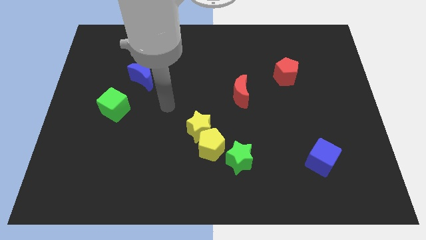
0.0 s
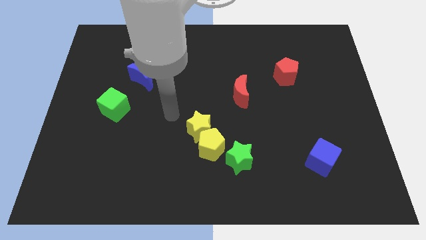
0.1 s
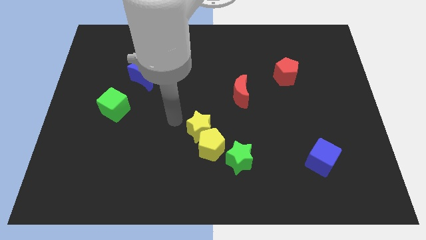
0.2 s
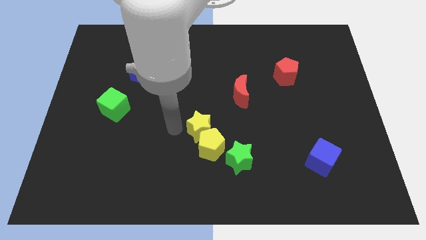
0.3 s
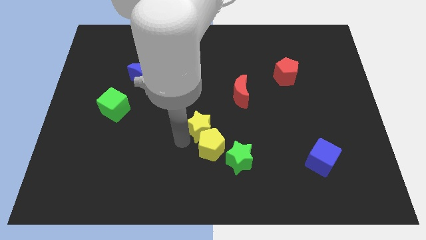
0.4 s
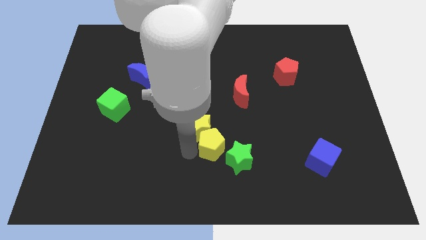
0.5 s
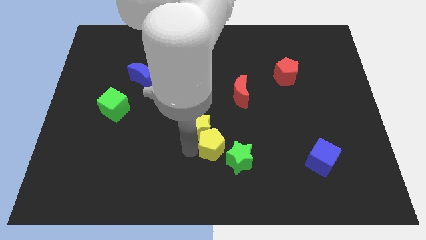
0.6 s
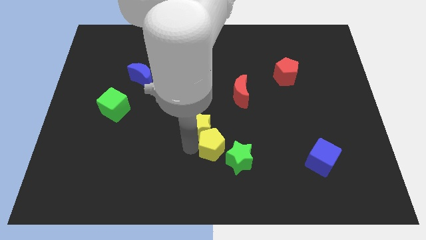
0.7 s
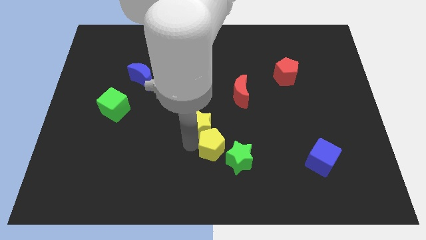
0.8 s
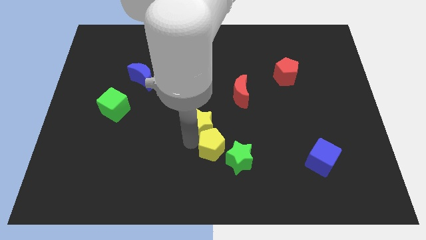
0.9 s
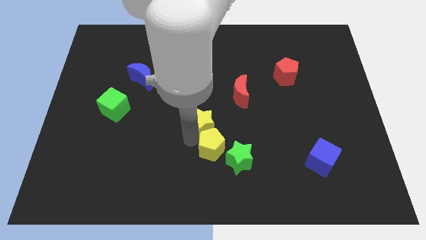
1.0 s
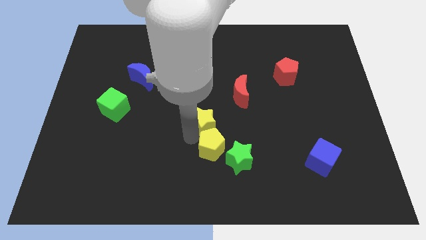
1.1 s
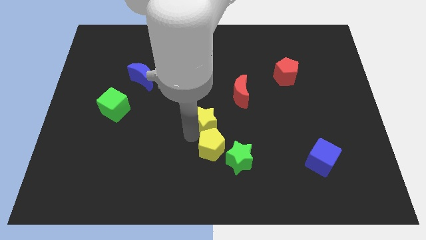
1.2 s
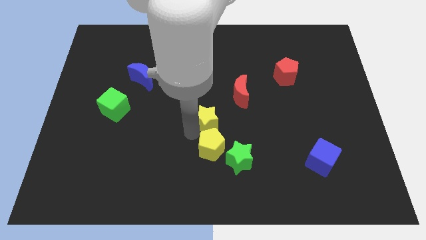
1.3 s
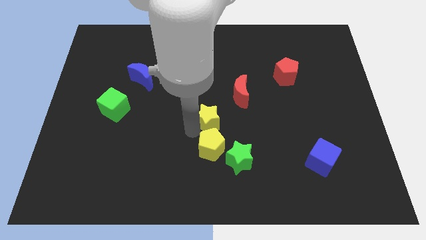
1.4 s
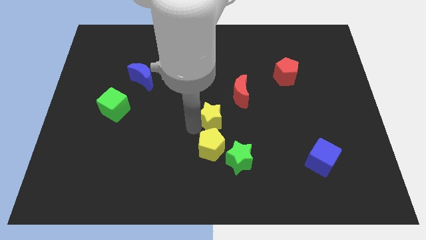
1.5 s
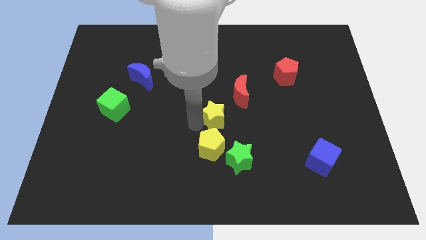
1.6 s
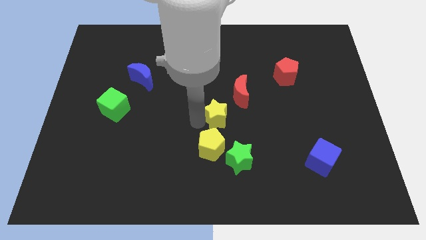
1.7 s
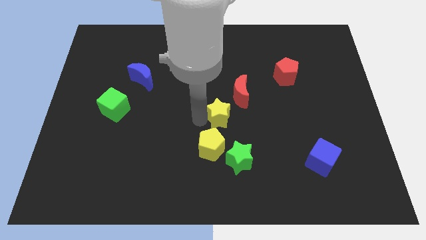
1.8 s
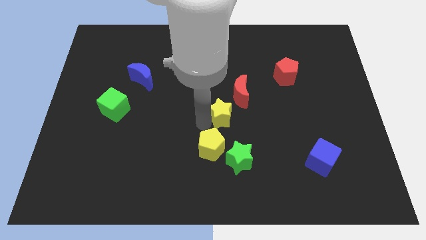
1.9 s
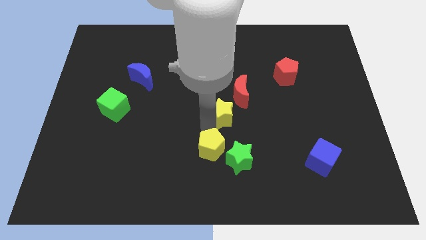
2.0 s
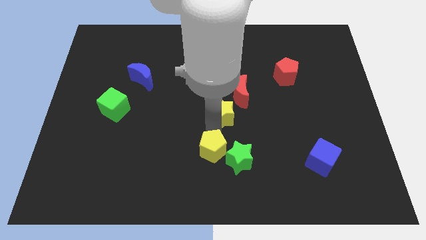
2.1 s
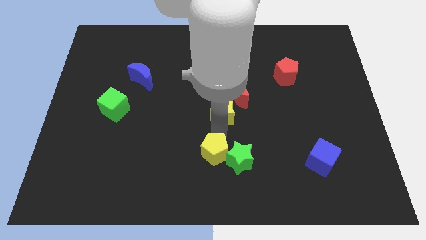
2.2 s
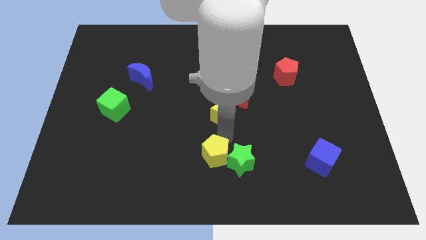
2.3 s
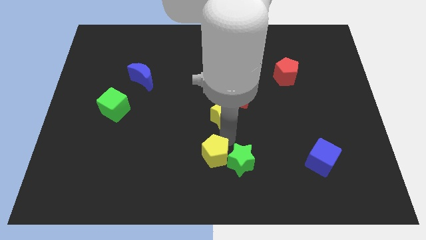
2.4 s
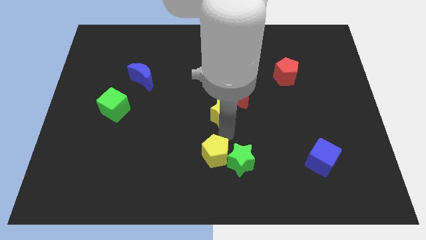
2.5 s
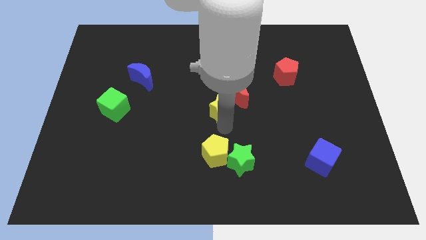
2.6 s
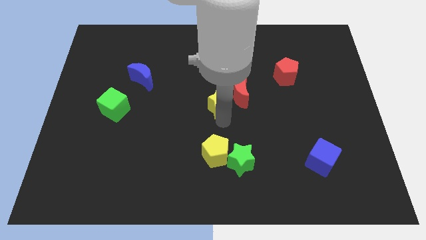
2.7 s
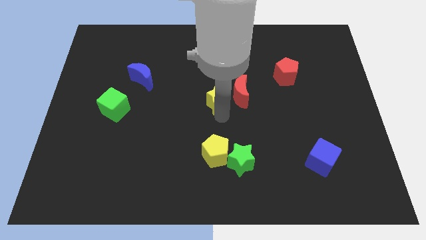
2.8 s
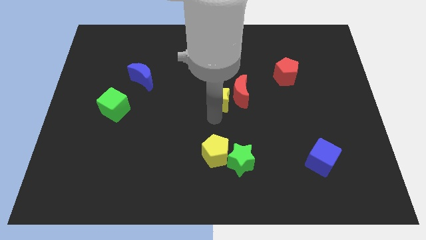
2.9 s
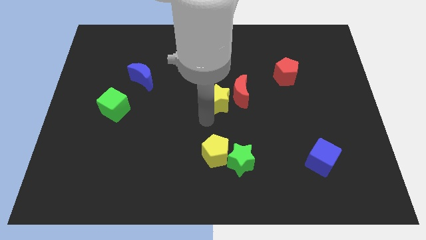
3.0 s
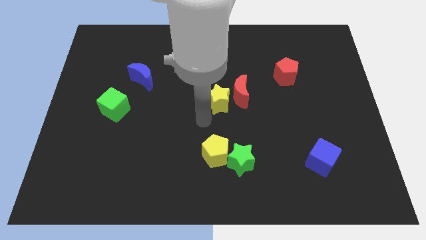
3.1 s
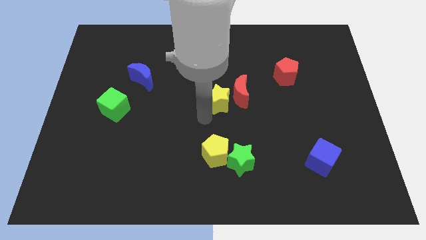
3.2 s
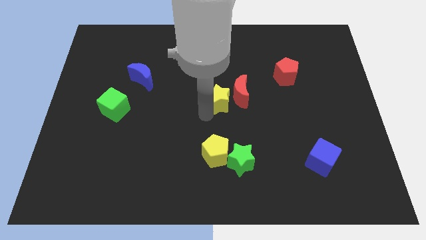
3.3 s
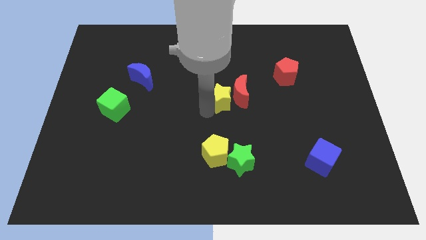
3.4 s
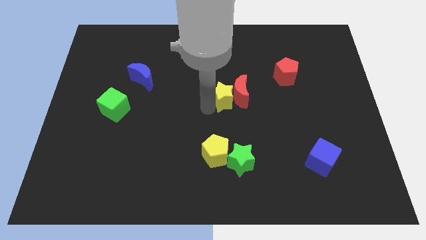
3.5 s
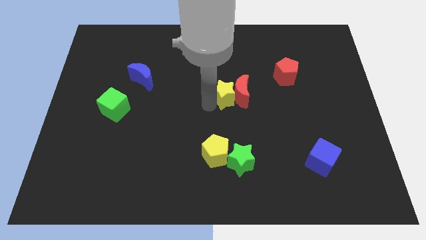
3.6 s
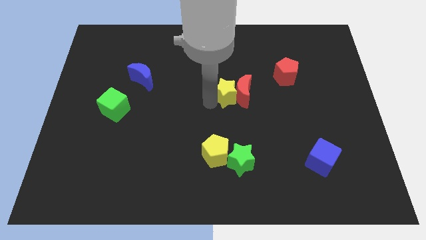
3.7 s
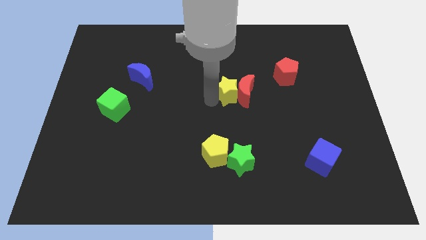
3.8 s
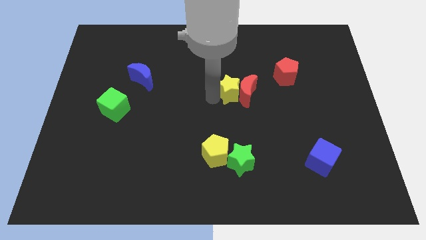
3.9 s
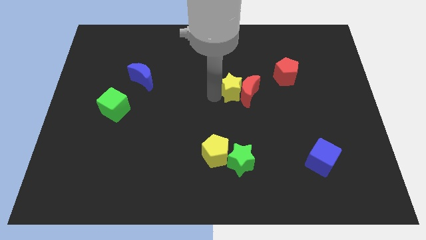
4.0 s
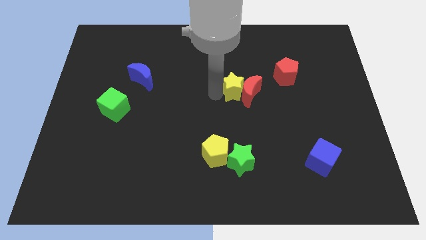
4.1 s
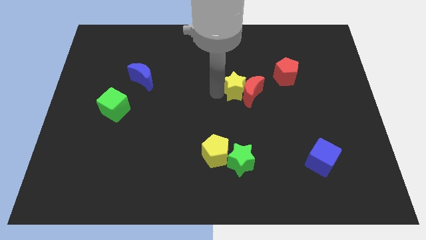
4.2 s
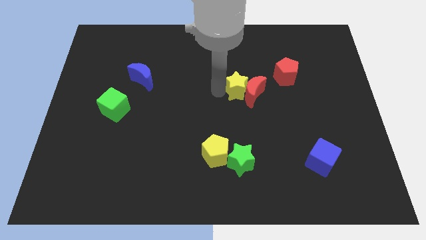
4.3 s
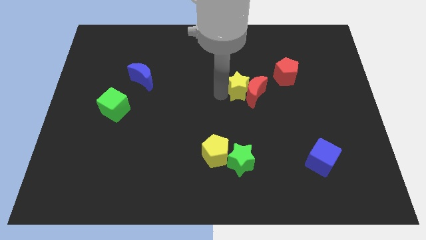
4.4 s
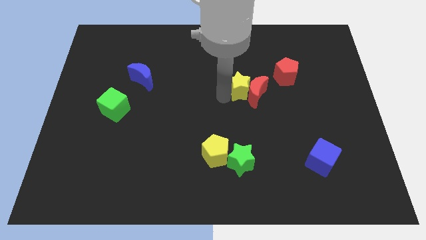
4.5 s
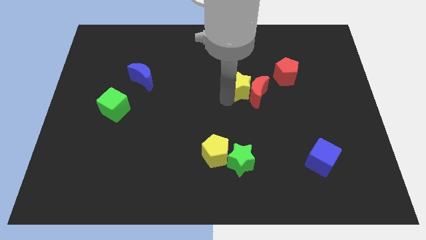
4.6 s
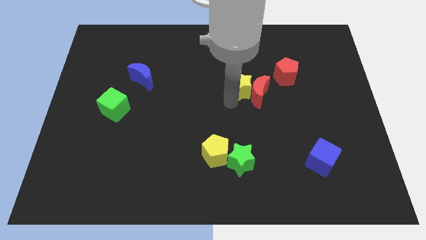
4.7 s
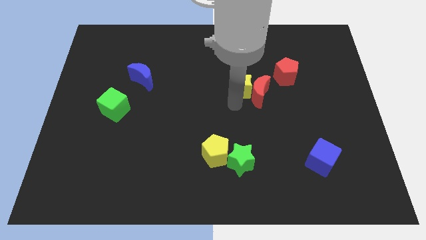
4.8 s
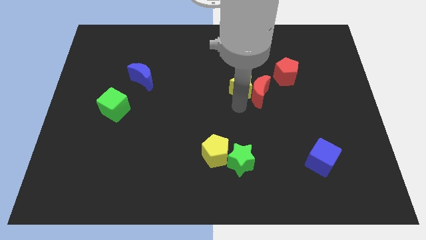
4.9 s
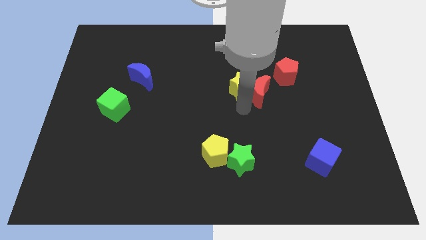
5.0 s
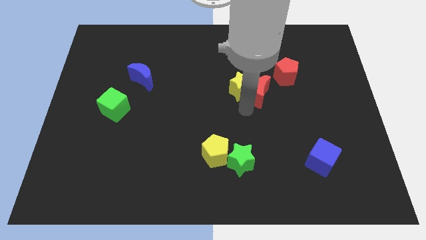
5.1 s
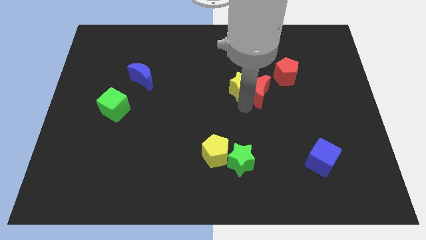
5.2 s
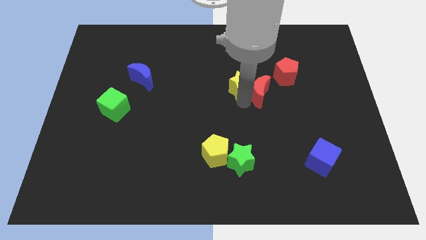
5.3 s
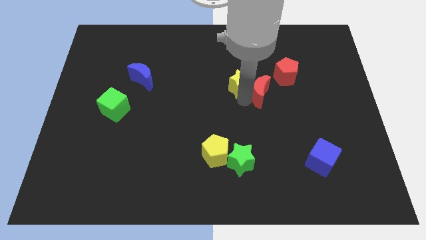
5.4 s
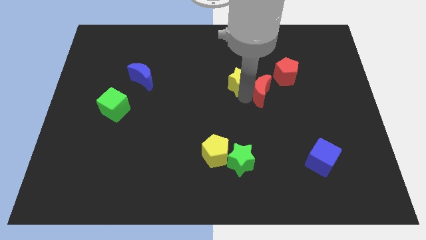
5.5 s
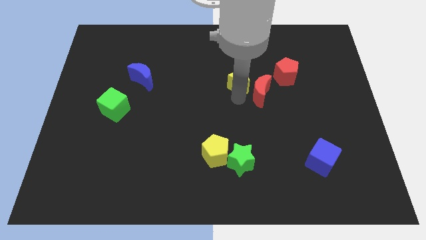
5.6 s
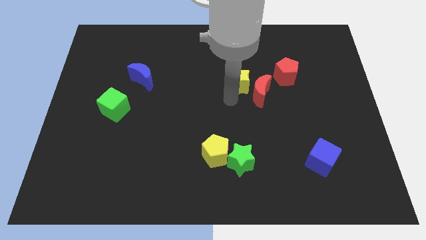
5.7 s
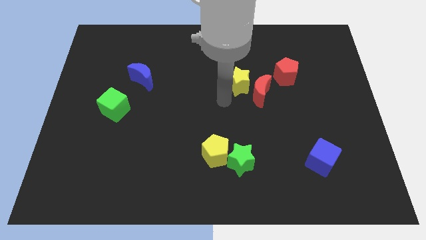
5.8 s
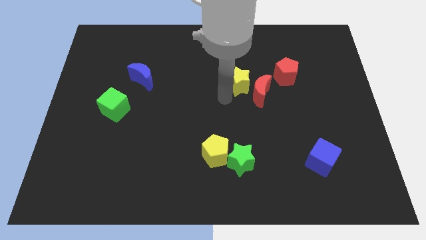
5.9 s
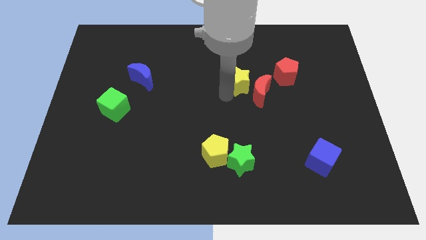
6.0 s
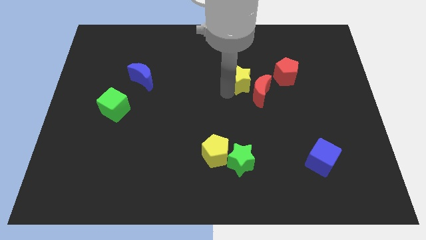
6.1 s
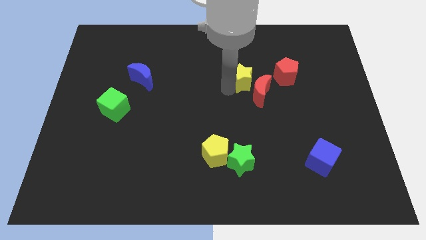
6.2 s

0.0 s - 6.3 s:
move the yellow star above the red moon

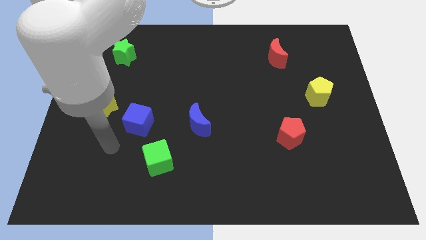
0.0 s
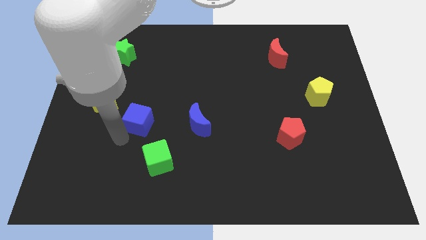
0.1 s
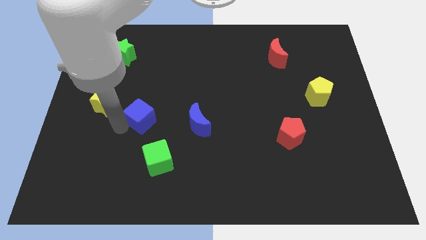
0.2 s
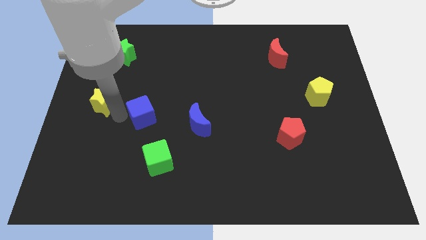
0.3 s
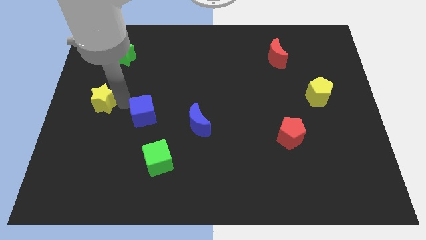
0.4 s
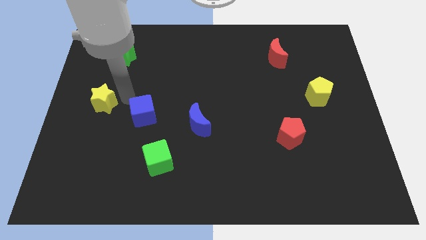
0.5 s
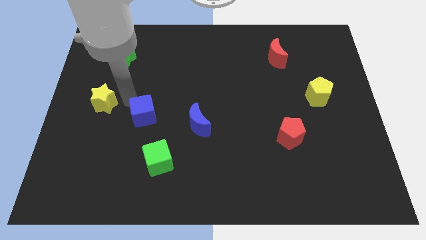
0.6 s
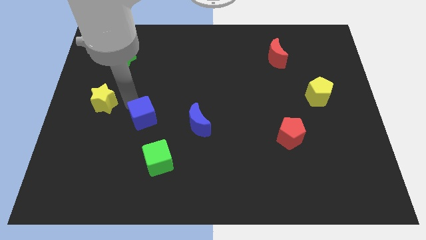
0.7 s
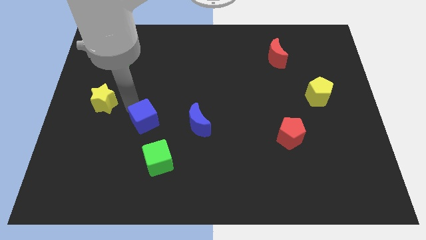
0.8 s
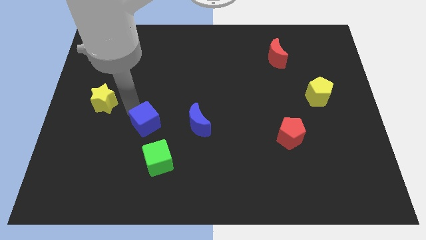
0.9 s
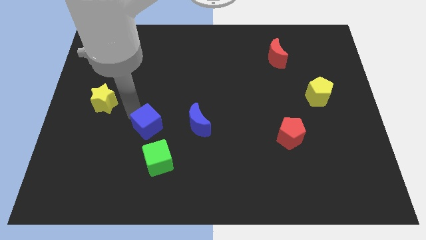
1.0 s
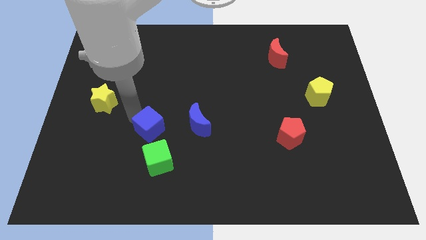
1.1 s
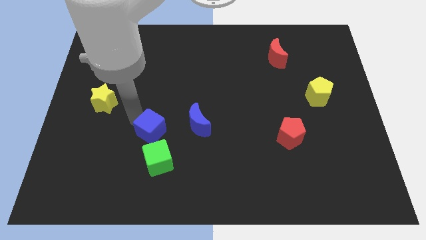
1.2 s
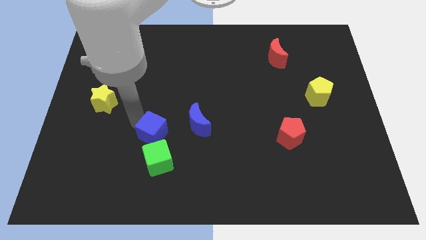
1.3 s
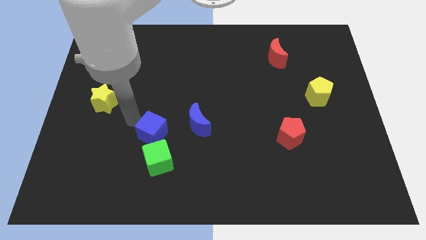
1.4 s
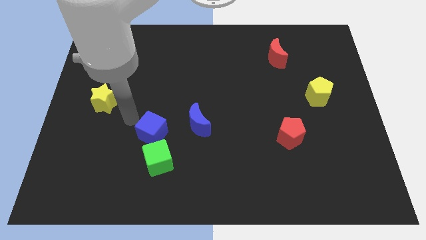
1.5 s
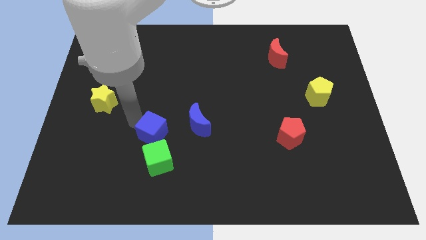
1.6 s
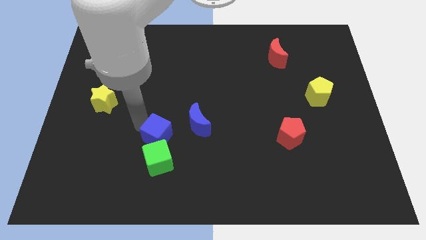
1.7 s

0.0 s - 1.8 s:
push the blue cube diagonally down and to the left of the blue moon

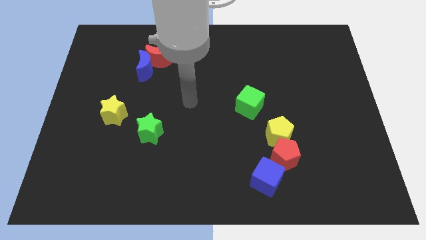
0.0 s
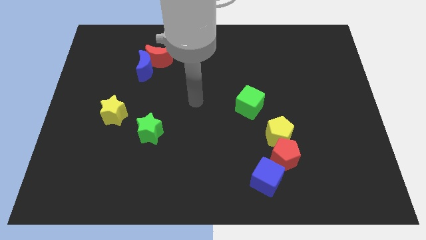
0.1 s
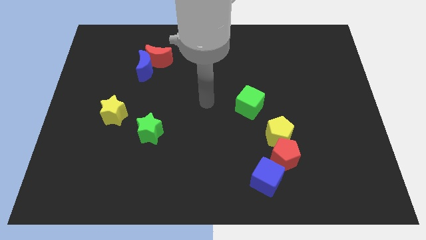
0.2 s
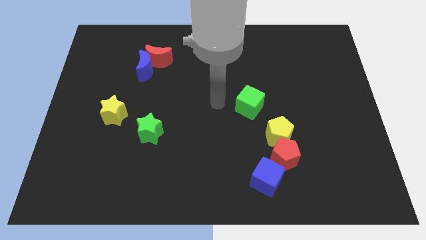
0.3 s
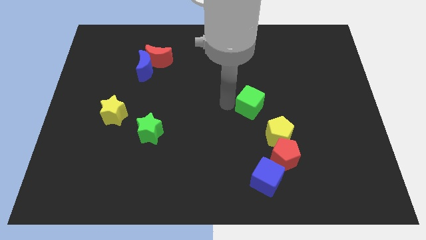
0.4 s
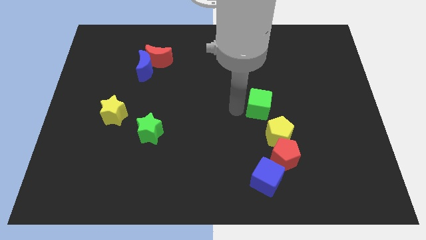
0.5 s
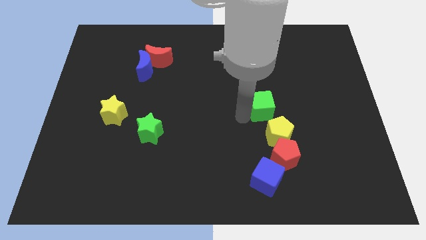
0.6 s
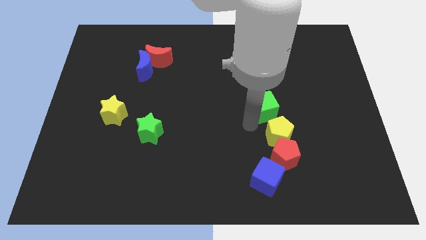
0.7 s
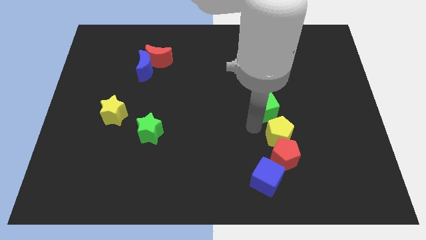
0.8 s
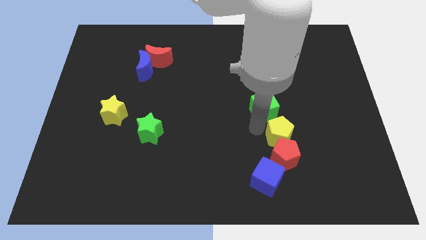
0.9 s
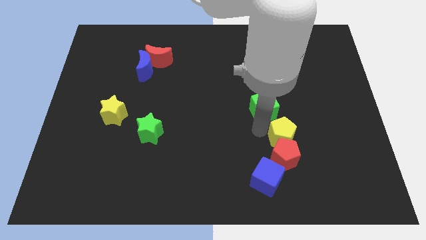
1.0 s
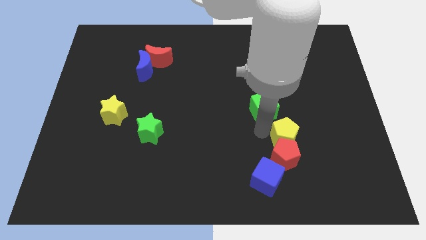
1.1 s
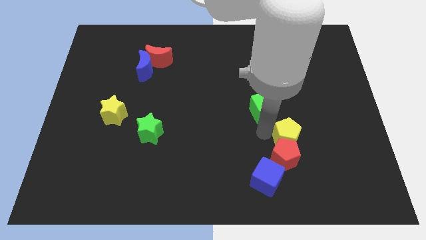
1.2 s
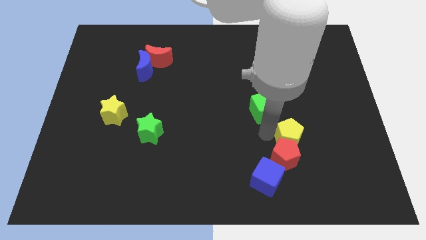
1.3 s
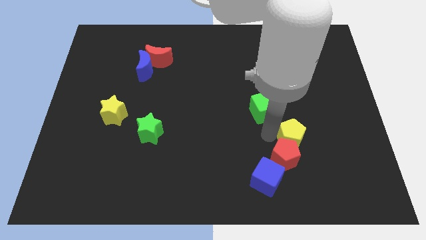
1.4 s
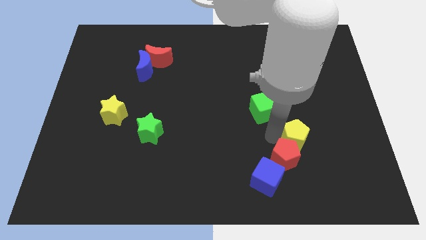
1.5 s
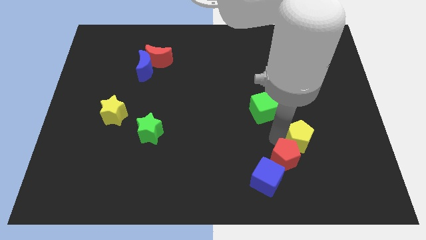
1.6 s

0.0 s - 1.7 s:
move the yellow pentagon to the right side of the red pentagon
